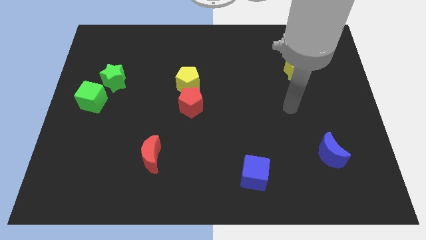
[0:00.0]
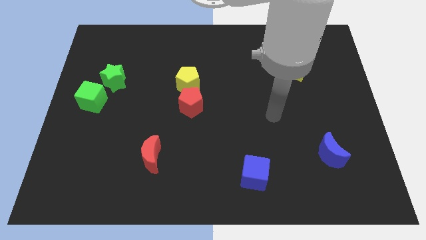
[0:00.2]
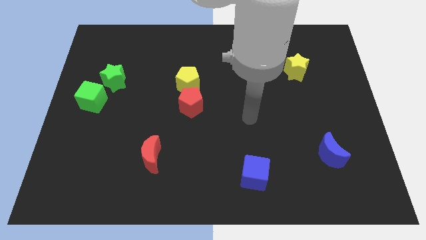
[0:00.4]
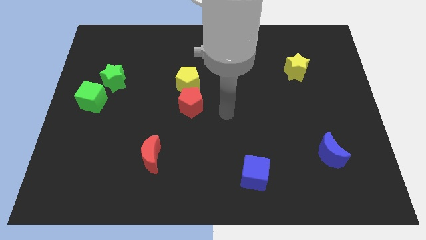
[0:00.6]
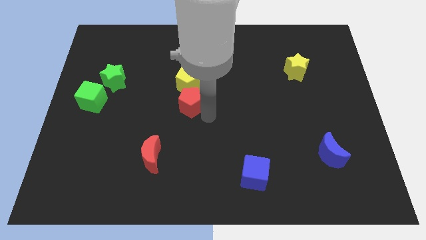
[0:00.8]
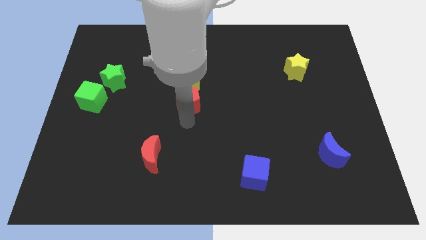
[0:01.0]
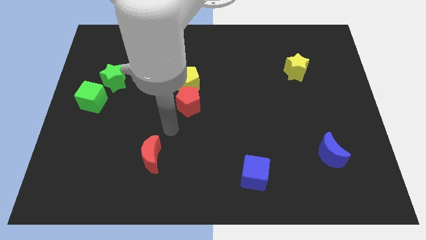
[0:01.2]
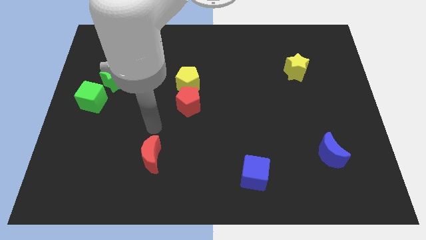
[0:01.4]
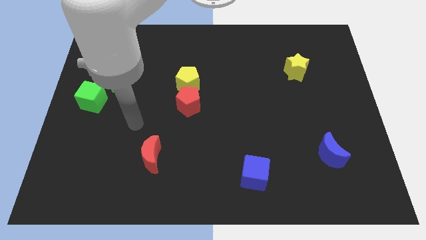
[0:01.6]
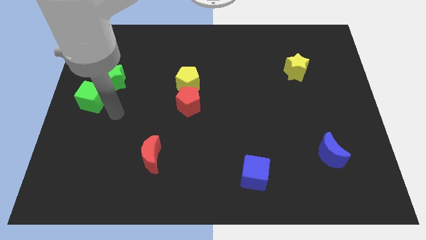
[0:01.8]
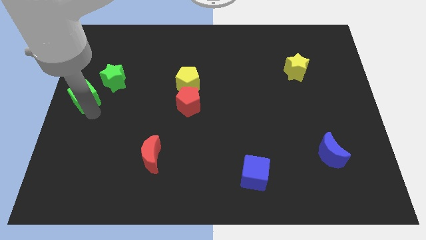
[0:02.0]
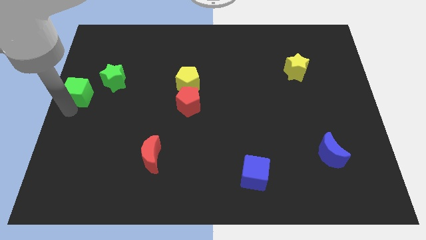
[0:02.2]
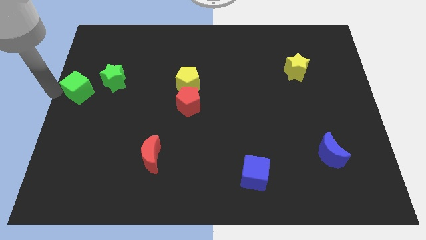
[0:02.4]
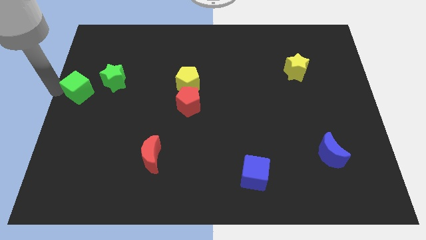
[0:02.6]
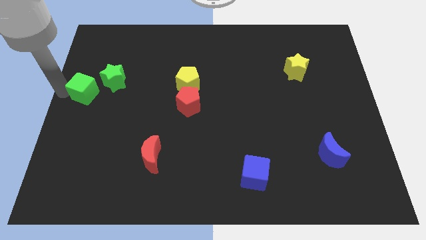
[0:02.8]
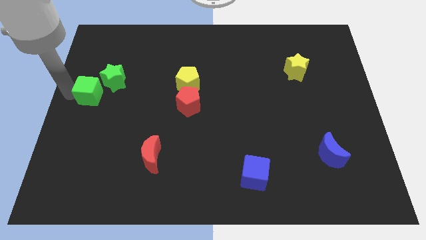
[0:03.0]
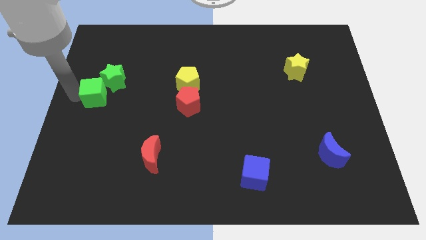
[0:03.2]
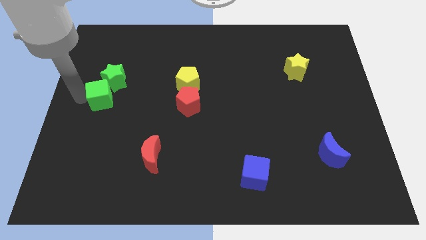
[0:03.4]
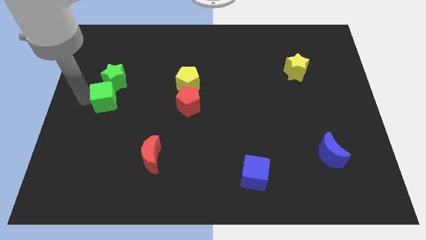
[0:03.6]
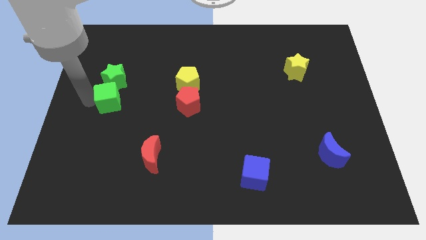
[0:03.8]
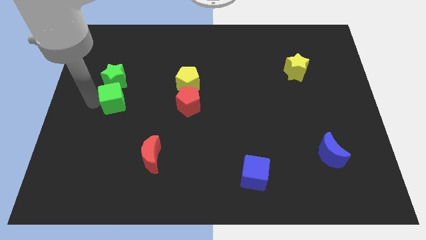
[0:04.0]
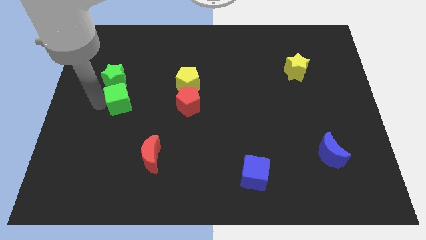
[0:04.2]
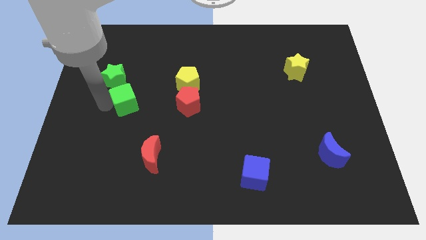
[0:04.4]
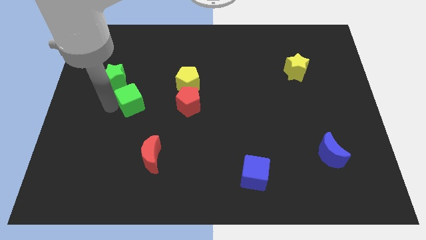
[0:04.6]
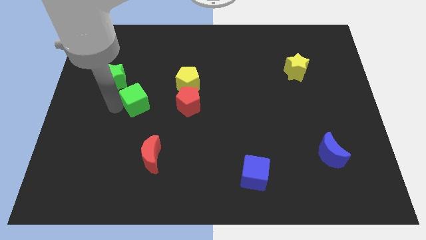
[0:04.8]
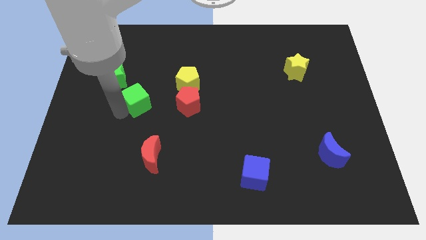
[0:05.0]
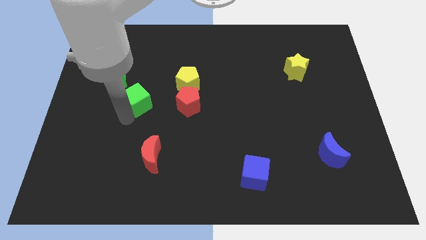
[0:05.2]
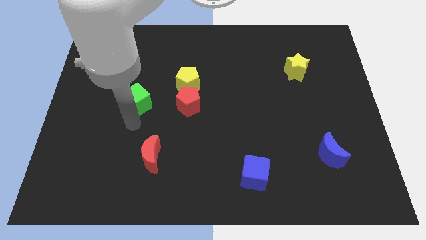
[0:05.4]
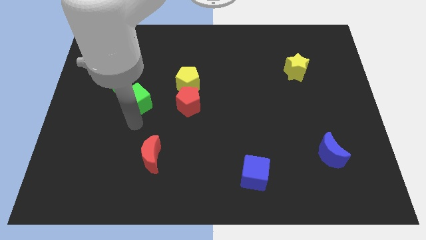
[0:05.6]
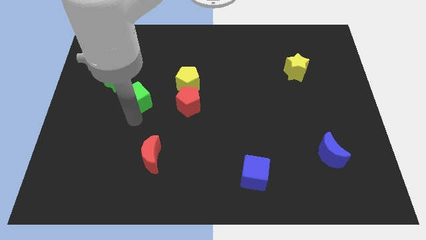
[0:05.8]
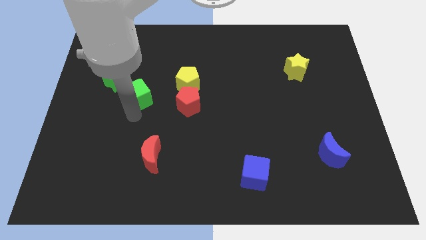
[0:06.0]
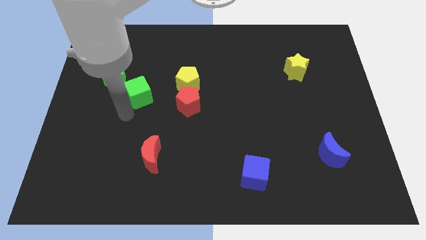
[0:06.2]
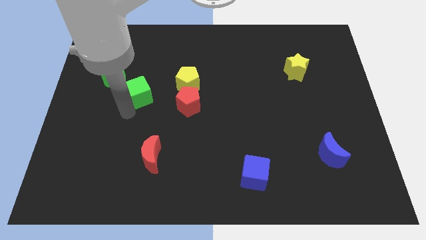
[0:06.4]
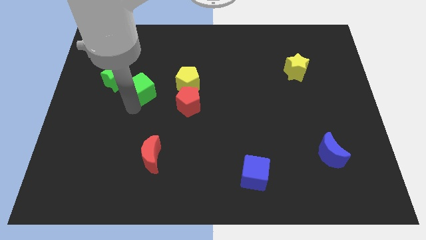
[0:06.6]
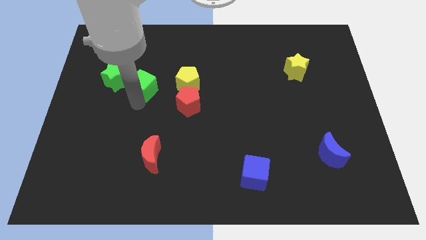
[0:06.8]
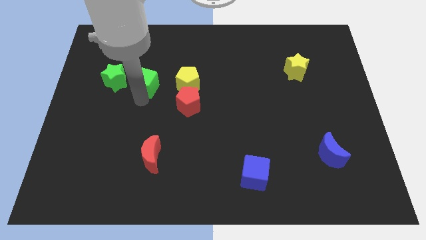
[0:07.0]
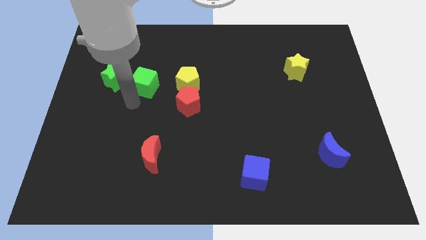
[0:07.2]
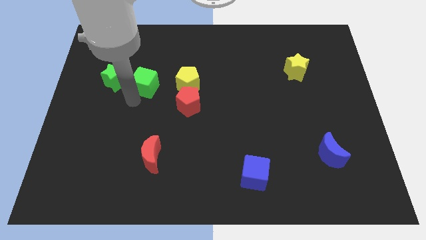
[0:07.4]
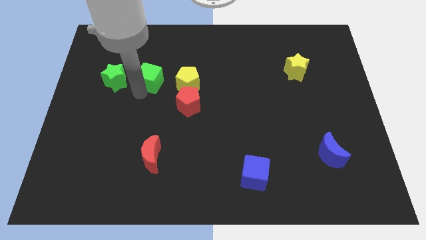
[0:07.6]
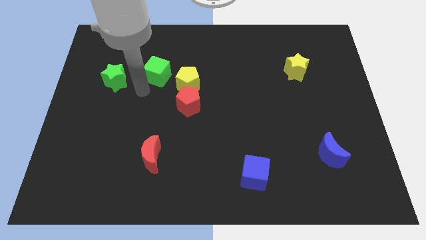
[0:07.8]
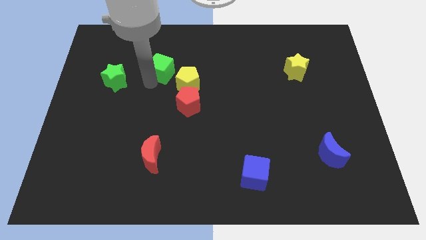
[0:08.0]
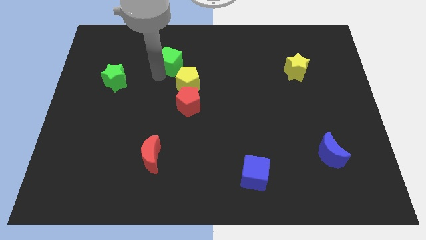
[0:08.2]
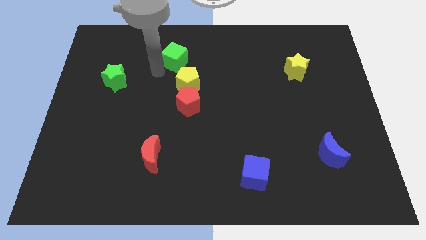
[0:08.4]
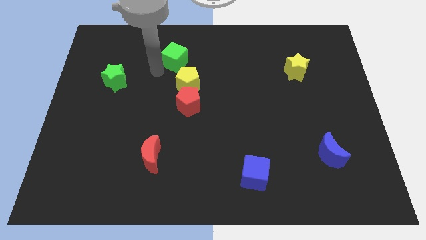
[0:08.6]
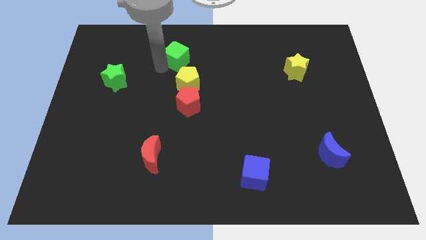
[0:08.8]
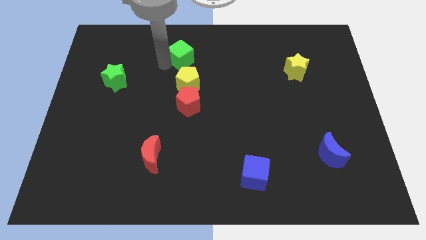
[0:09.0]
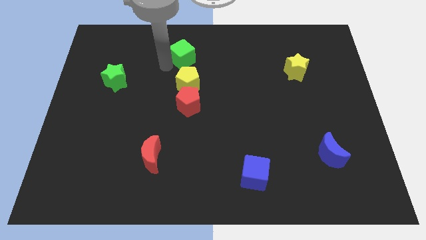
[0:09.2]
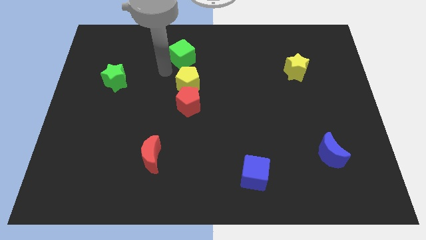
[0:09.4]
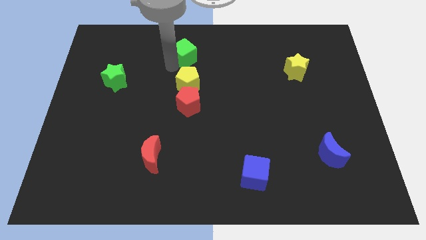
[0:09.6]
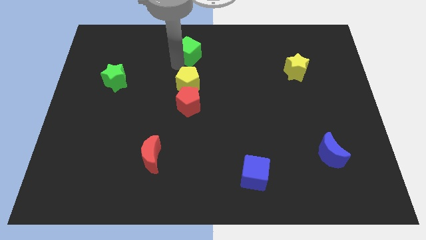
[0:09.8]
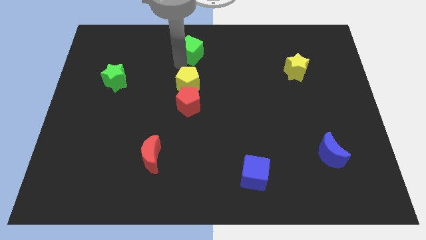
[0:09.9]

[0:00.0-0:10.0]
slide the green cube to the top

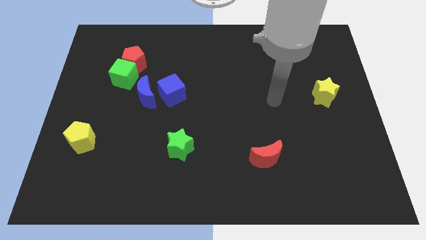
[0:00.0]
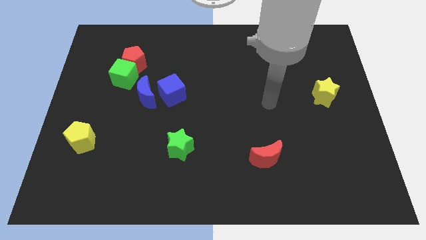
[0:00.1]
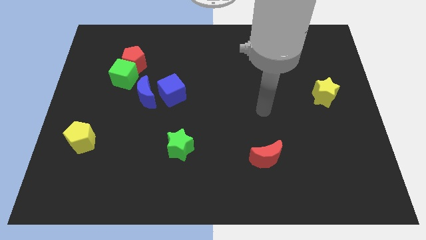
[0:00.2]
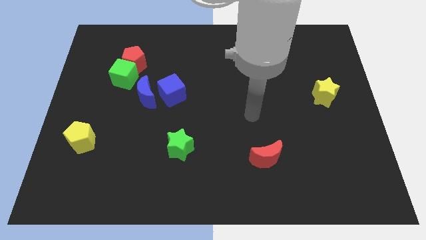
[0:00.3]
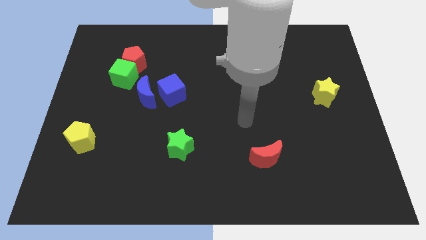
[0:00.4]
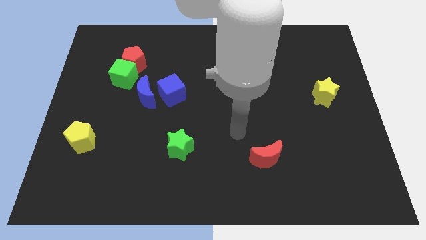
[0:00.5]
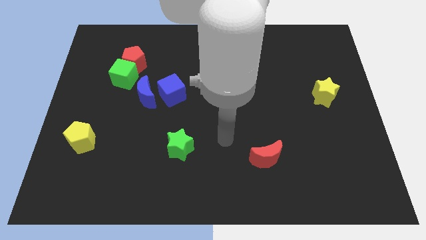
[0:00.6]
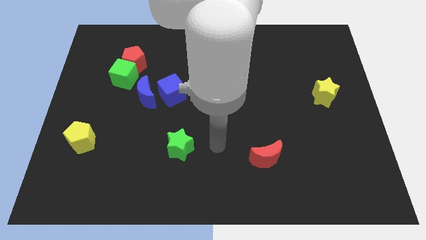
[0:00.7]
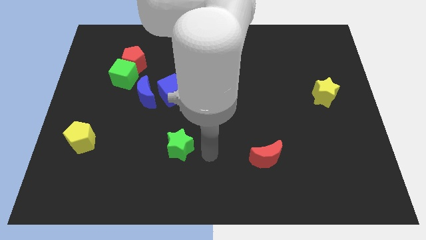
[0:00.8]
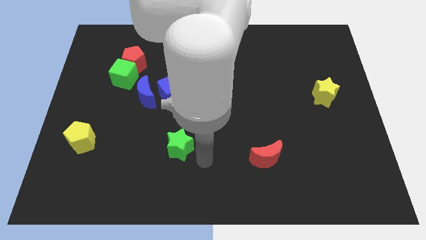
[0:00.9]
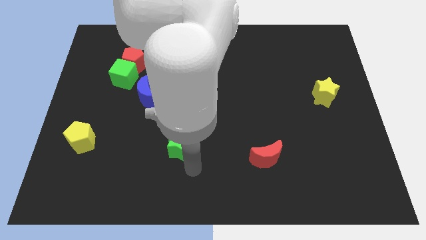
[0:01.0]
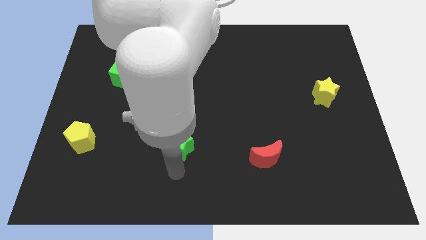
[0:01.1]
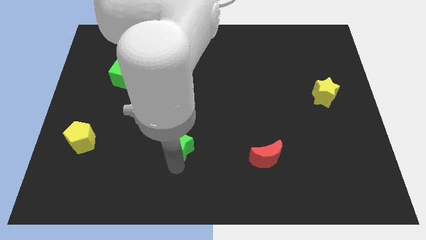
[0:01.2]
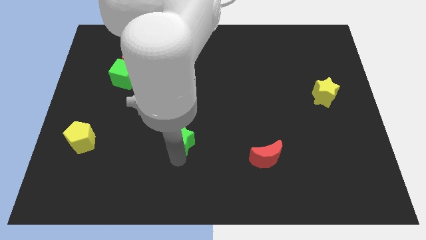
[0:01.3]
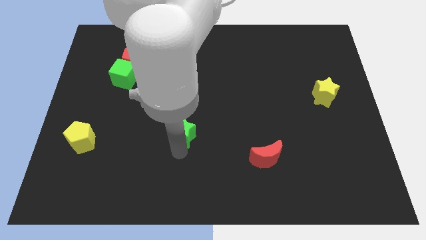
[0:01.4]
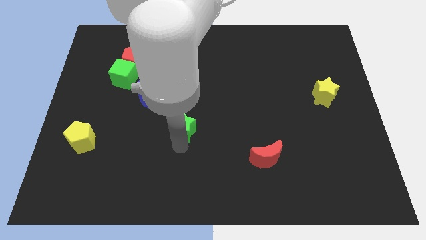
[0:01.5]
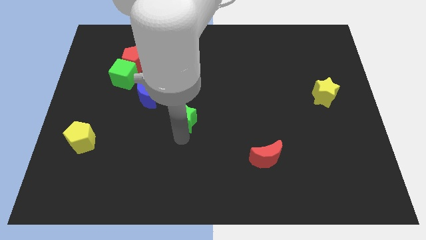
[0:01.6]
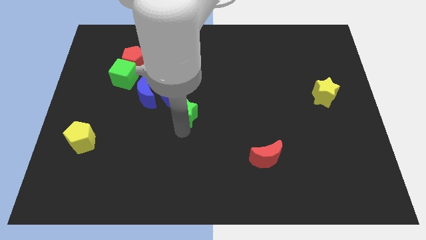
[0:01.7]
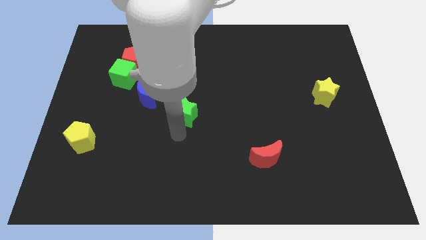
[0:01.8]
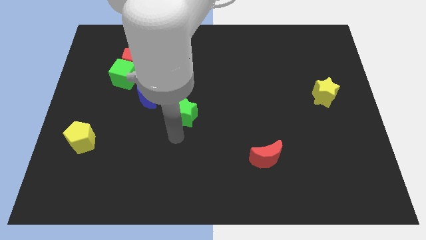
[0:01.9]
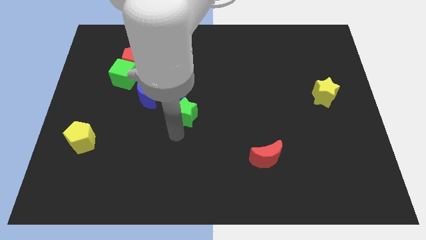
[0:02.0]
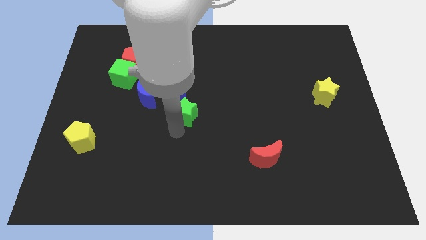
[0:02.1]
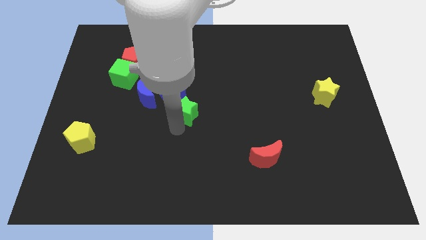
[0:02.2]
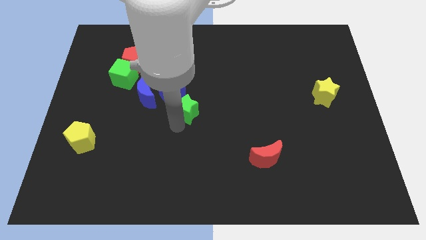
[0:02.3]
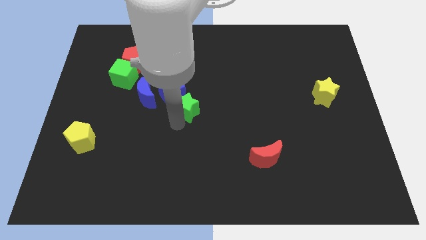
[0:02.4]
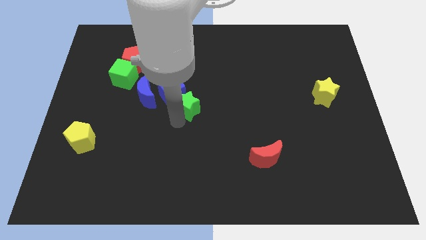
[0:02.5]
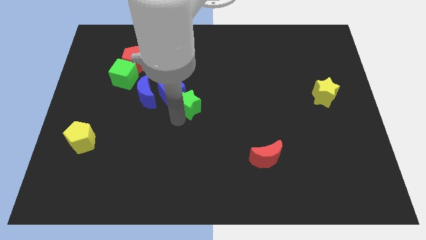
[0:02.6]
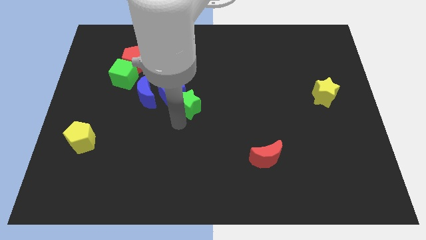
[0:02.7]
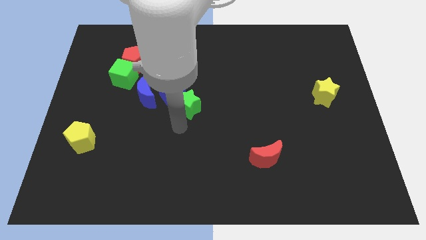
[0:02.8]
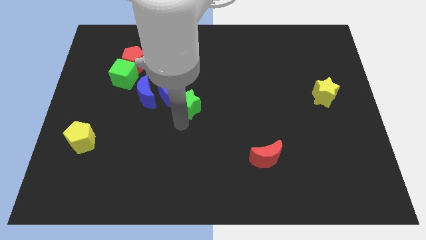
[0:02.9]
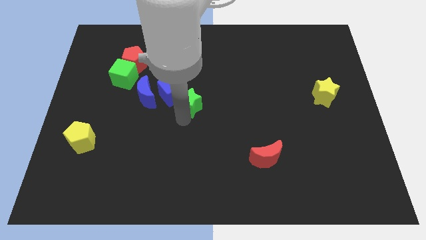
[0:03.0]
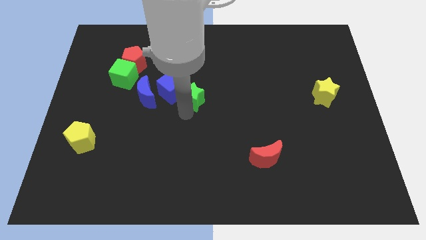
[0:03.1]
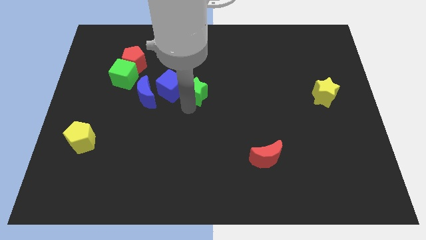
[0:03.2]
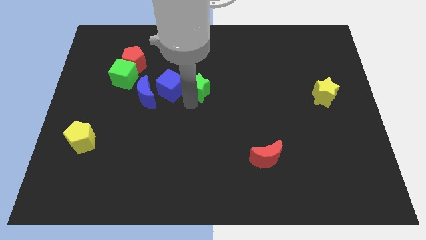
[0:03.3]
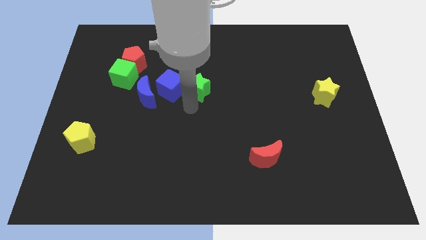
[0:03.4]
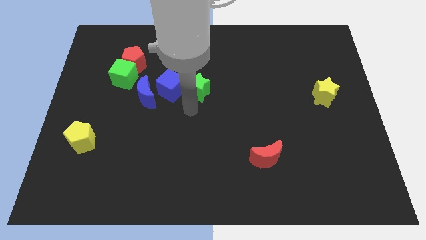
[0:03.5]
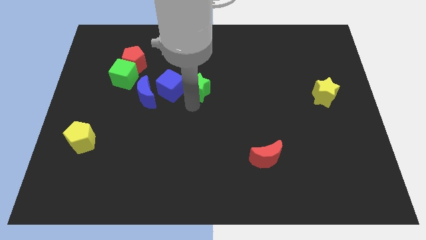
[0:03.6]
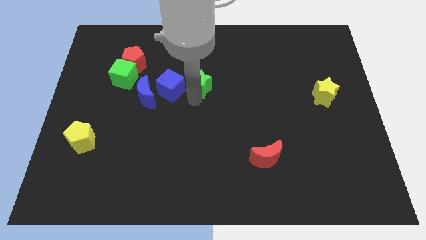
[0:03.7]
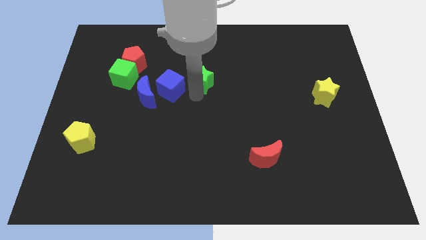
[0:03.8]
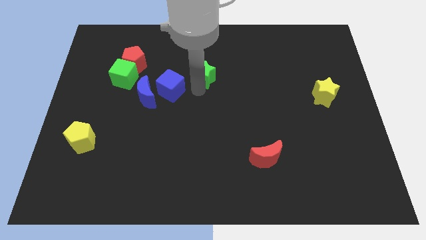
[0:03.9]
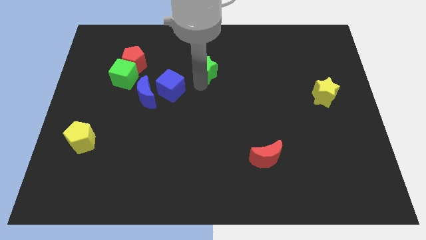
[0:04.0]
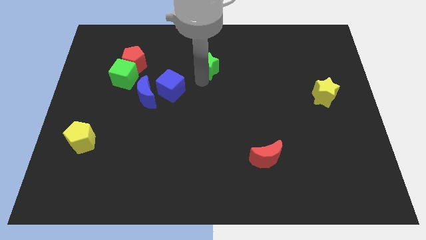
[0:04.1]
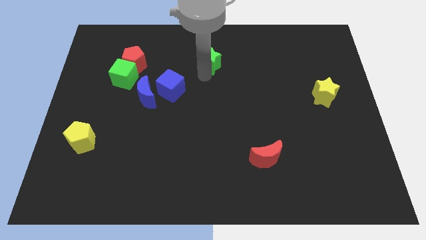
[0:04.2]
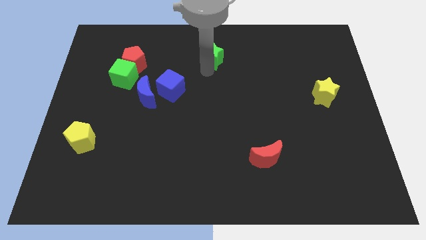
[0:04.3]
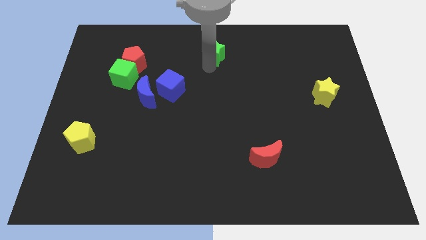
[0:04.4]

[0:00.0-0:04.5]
move the green star to the top side
